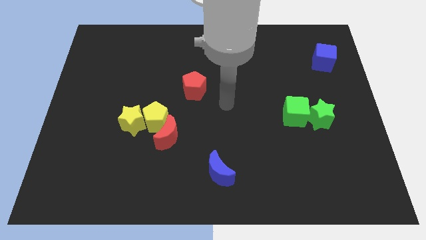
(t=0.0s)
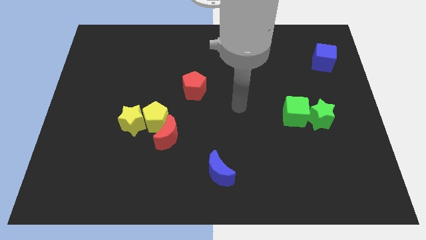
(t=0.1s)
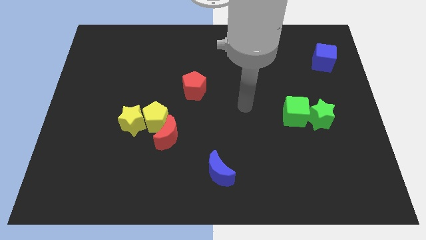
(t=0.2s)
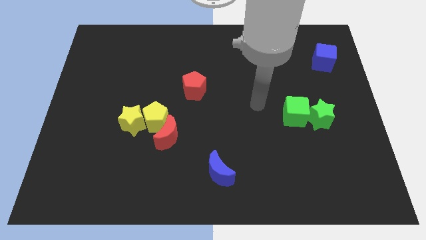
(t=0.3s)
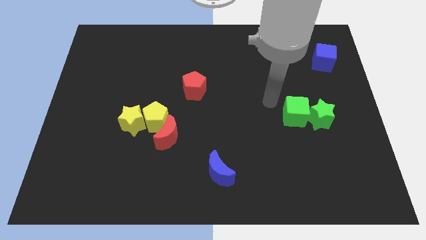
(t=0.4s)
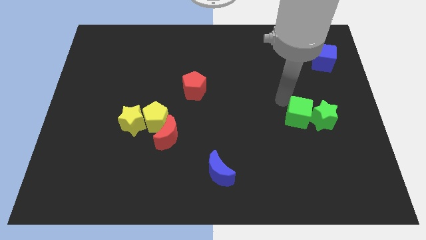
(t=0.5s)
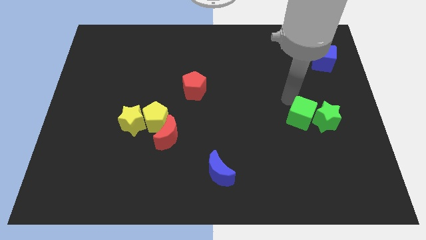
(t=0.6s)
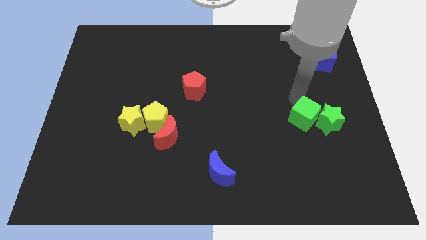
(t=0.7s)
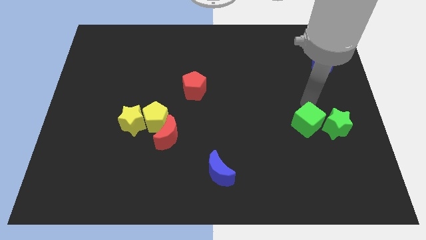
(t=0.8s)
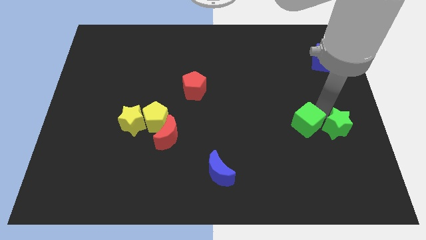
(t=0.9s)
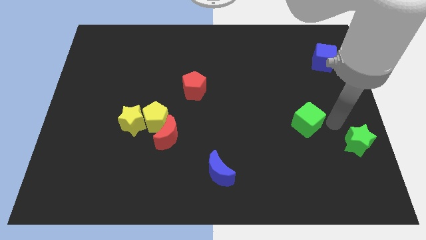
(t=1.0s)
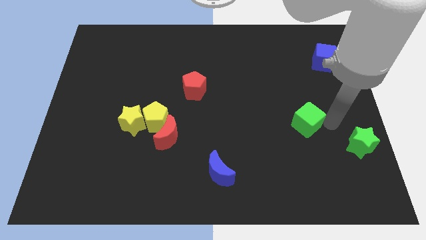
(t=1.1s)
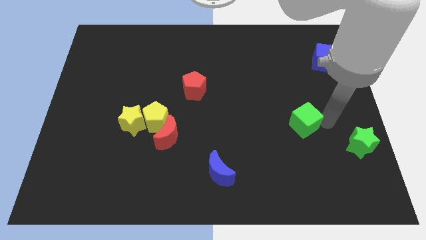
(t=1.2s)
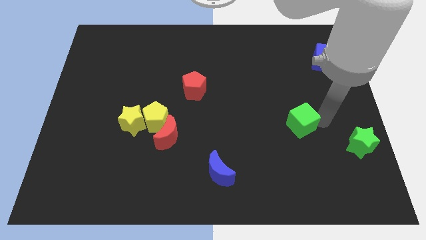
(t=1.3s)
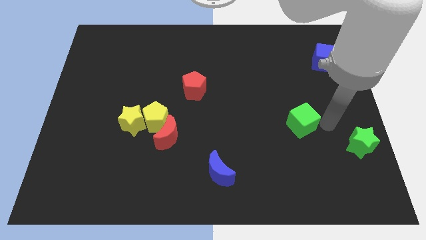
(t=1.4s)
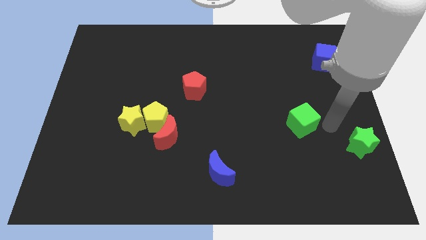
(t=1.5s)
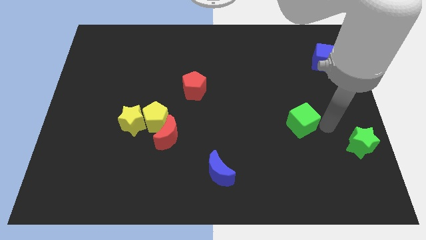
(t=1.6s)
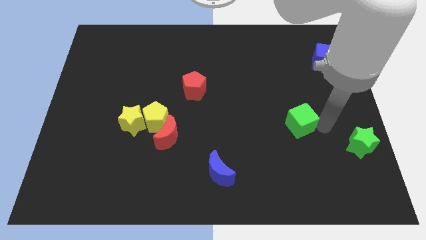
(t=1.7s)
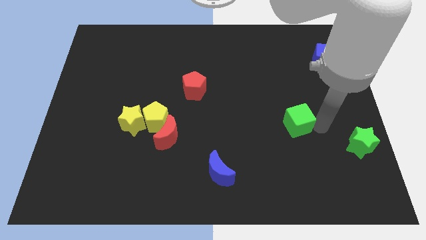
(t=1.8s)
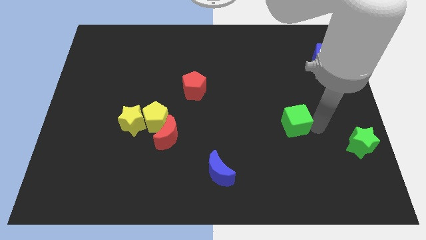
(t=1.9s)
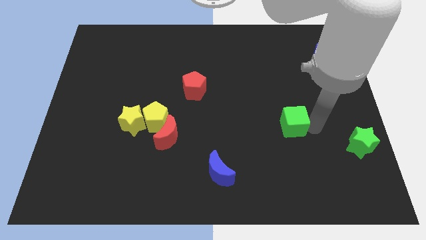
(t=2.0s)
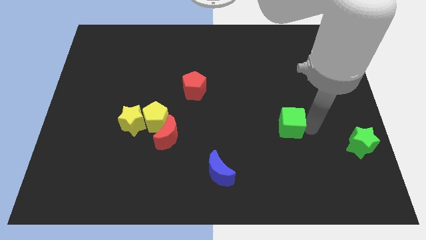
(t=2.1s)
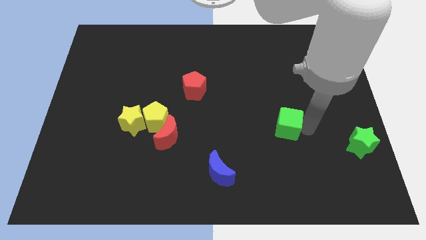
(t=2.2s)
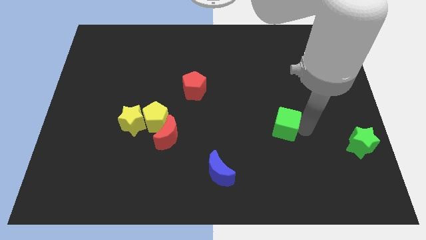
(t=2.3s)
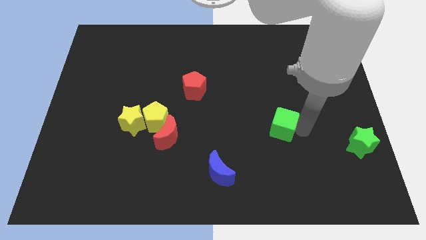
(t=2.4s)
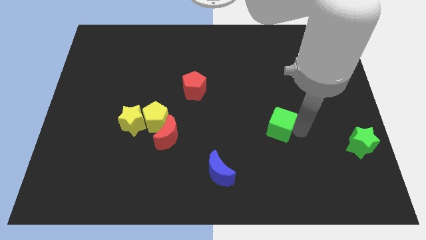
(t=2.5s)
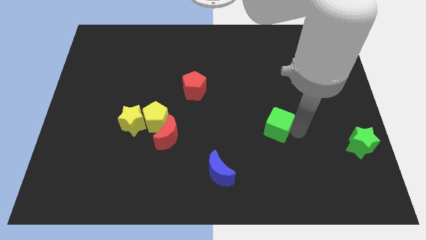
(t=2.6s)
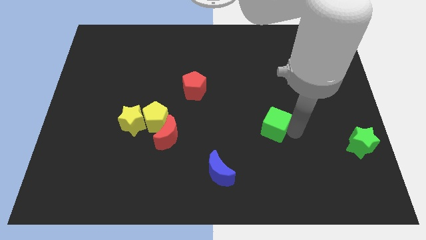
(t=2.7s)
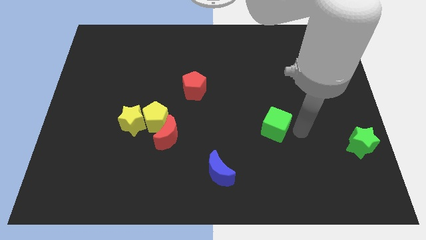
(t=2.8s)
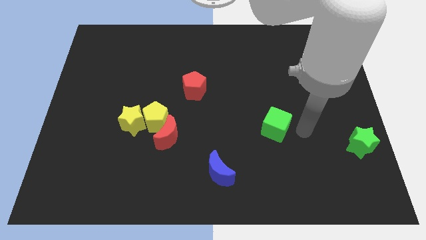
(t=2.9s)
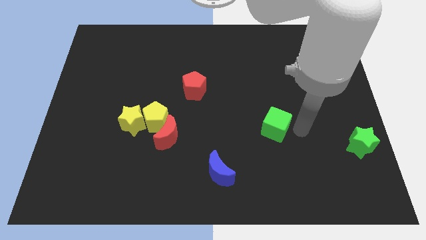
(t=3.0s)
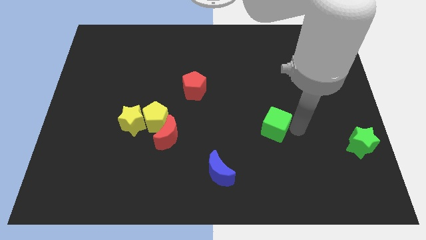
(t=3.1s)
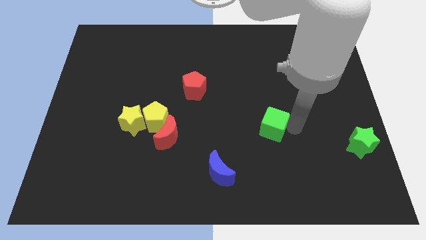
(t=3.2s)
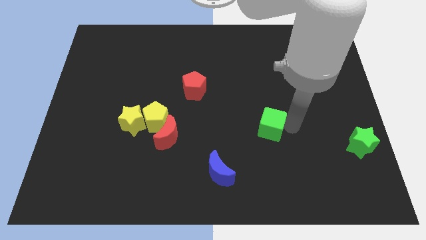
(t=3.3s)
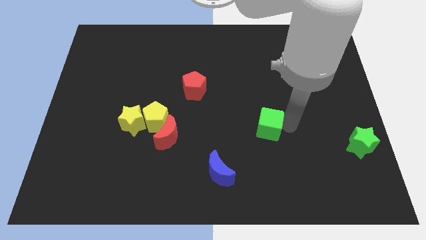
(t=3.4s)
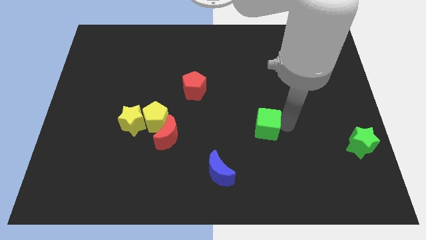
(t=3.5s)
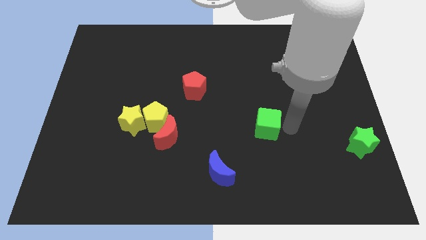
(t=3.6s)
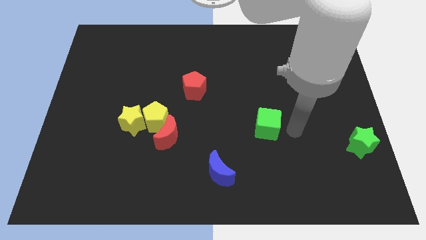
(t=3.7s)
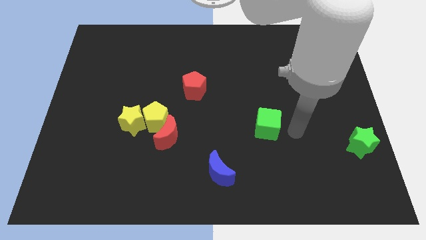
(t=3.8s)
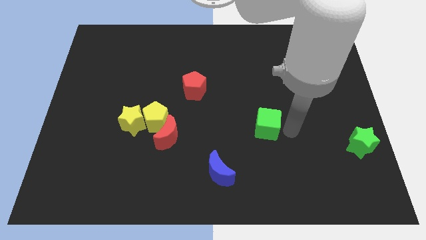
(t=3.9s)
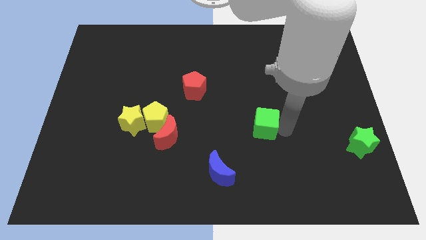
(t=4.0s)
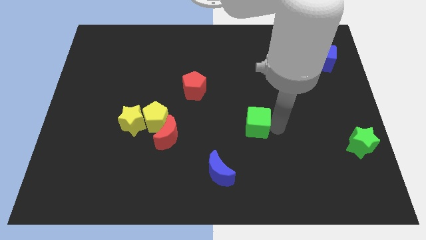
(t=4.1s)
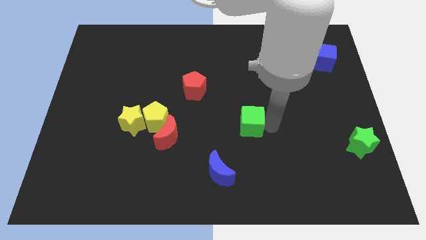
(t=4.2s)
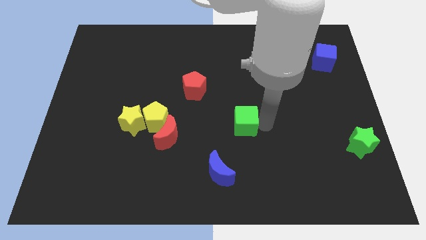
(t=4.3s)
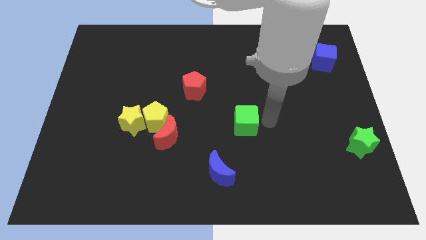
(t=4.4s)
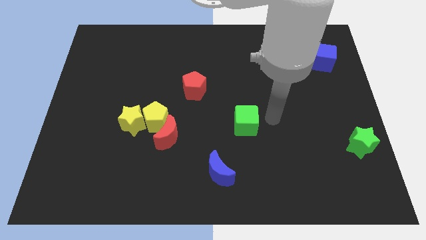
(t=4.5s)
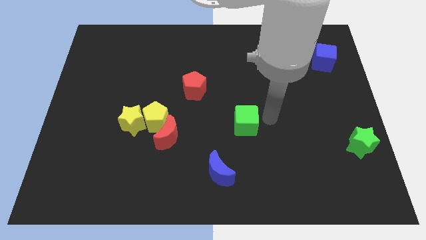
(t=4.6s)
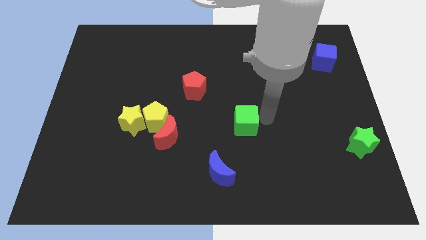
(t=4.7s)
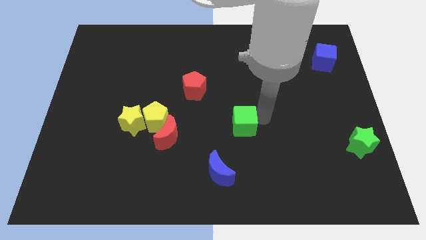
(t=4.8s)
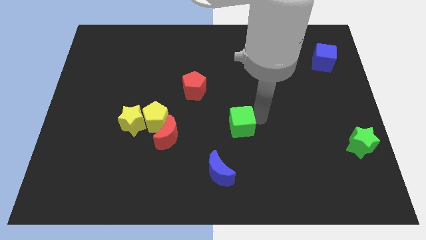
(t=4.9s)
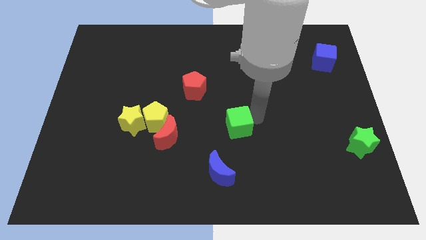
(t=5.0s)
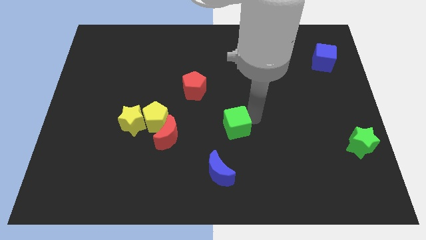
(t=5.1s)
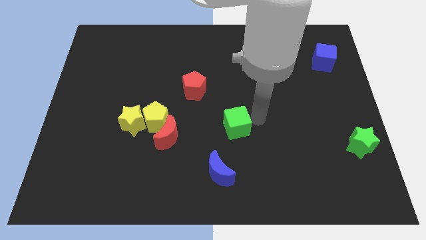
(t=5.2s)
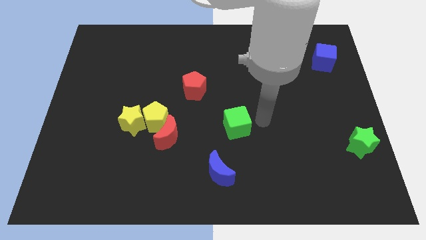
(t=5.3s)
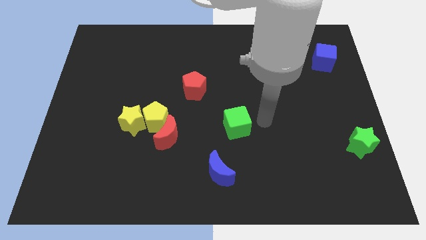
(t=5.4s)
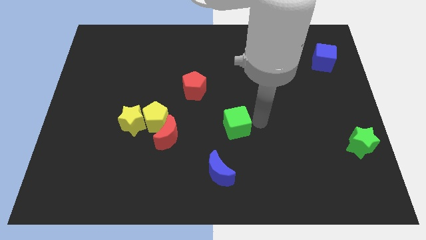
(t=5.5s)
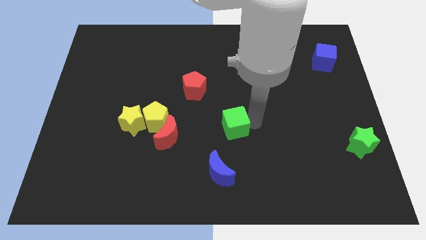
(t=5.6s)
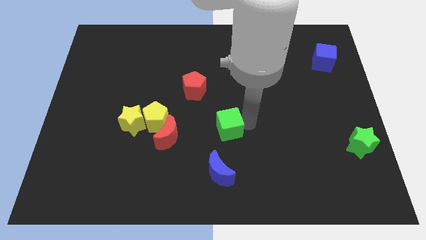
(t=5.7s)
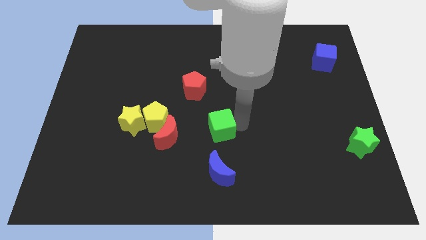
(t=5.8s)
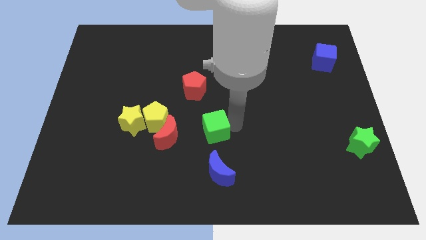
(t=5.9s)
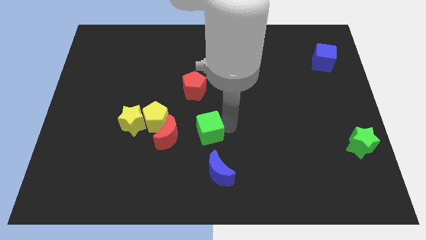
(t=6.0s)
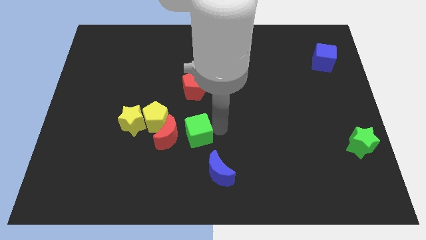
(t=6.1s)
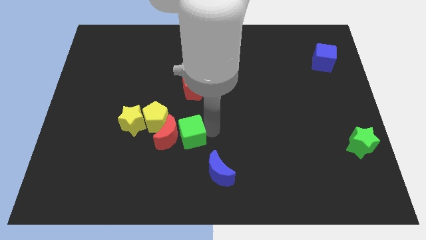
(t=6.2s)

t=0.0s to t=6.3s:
move the green cube to the red moon

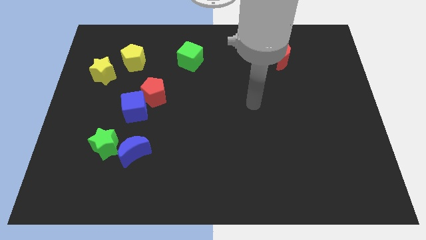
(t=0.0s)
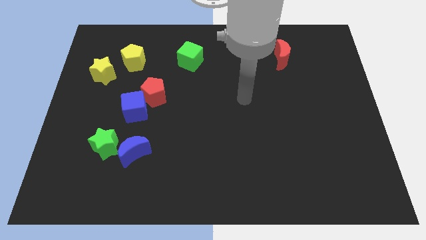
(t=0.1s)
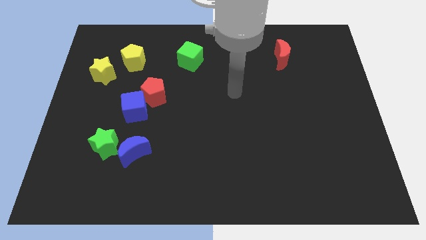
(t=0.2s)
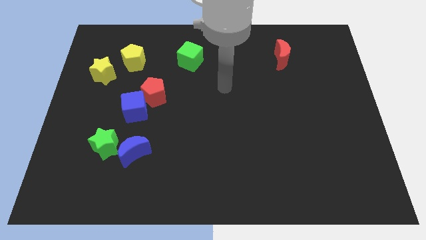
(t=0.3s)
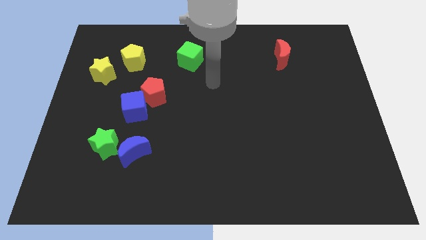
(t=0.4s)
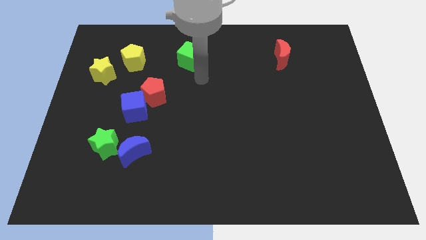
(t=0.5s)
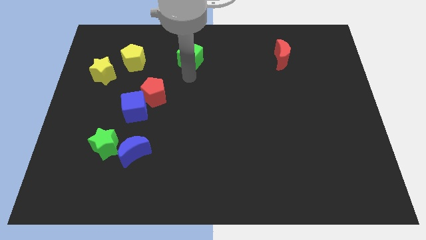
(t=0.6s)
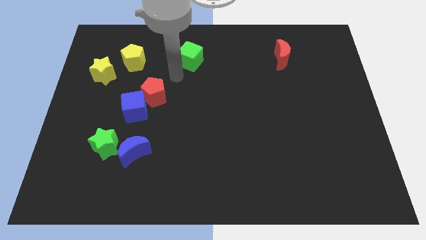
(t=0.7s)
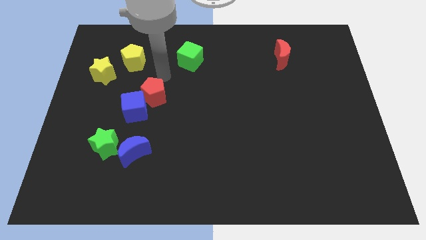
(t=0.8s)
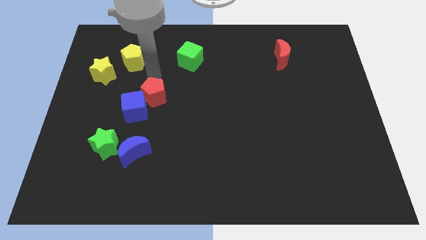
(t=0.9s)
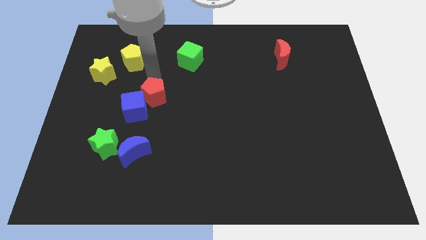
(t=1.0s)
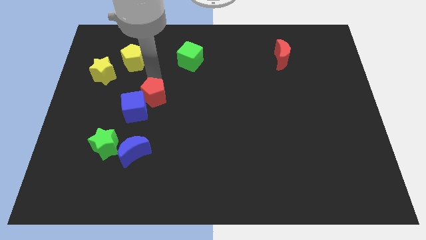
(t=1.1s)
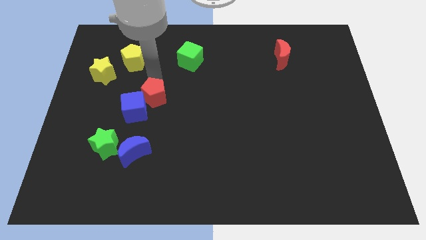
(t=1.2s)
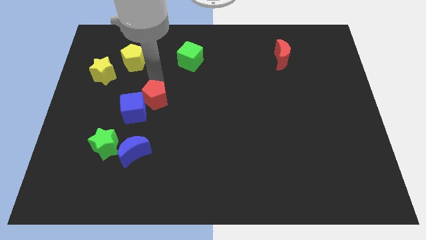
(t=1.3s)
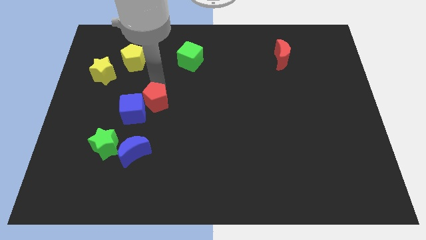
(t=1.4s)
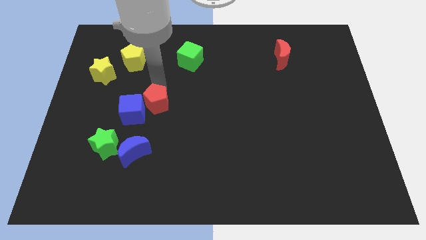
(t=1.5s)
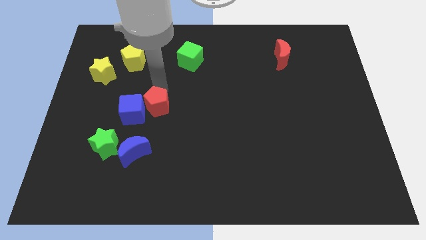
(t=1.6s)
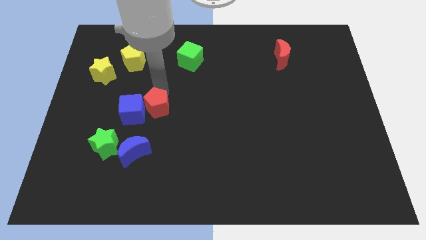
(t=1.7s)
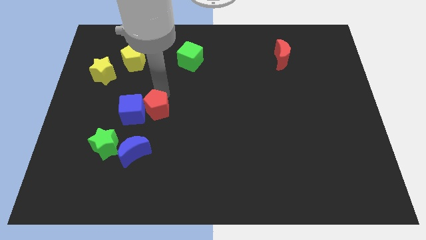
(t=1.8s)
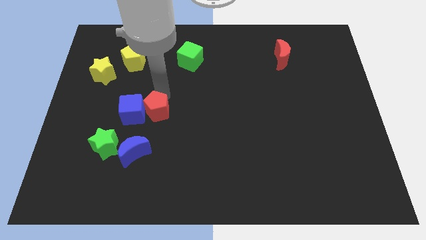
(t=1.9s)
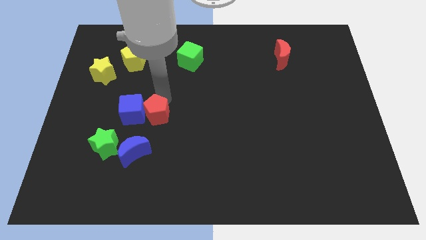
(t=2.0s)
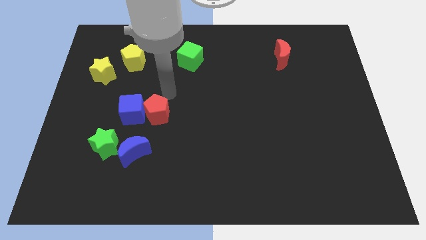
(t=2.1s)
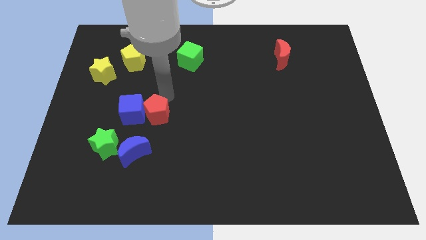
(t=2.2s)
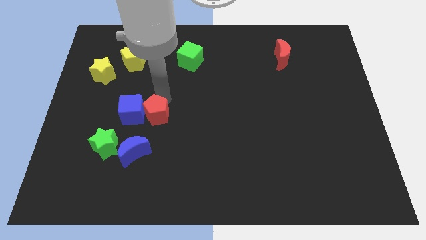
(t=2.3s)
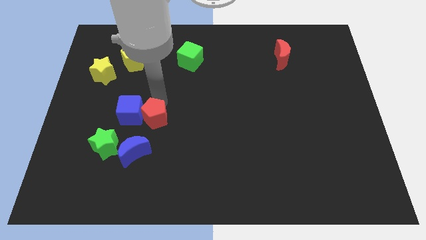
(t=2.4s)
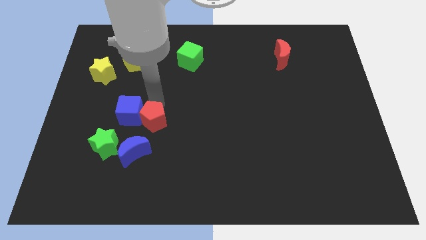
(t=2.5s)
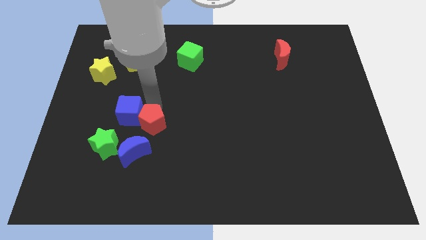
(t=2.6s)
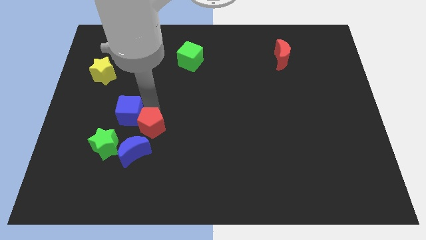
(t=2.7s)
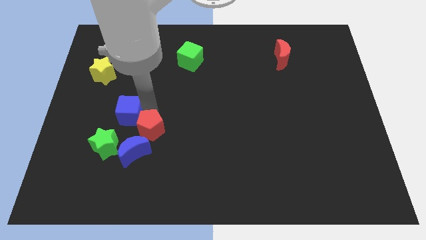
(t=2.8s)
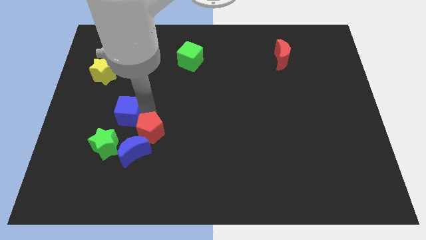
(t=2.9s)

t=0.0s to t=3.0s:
put the red pentagon close to the blue moon
